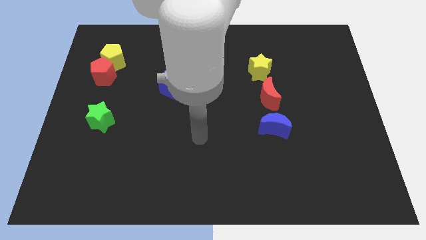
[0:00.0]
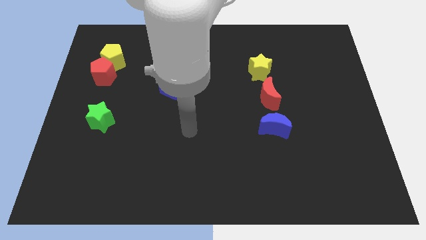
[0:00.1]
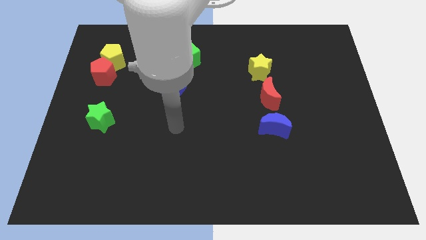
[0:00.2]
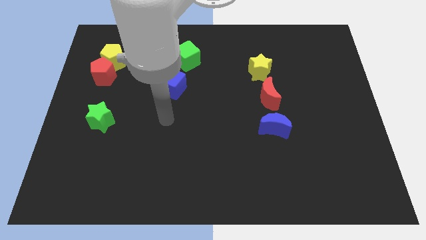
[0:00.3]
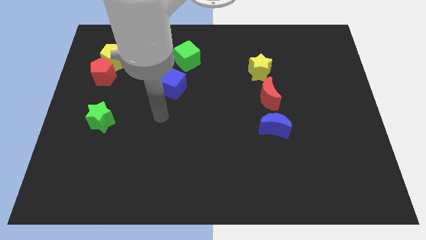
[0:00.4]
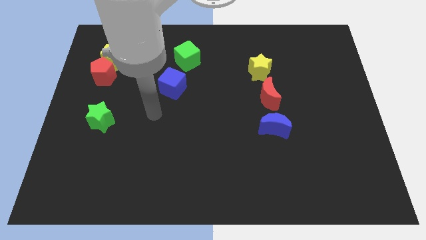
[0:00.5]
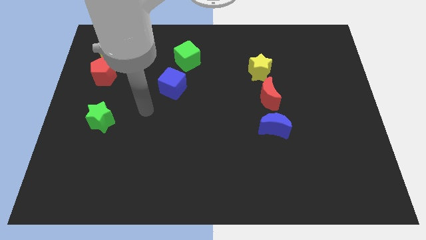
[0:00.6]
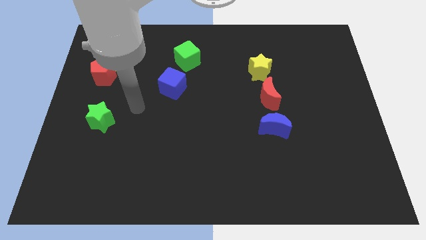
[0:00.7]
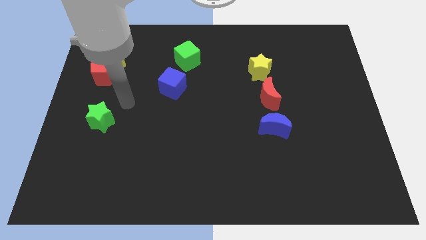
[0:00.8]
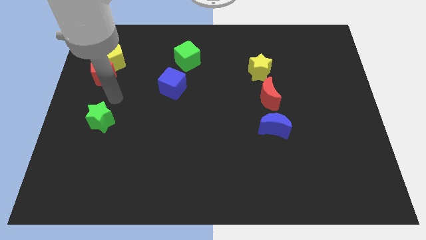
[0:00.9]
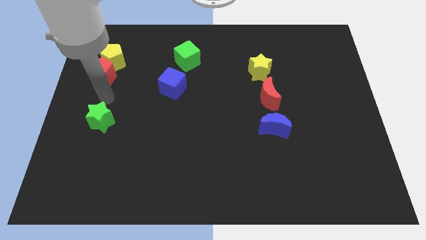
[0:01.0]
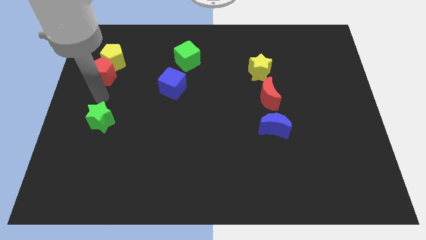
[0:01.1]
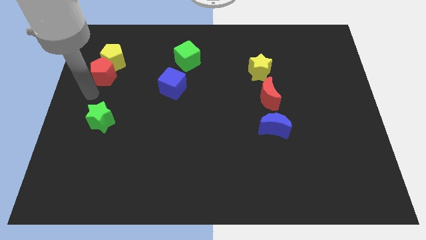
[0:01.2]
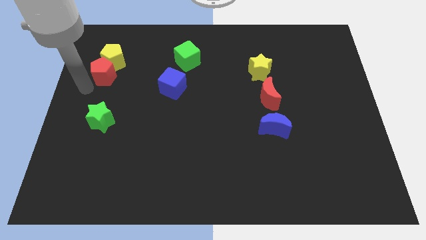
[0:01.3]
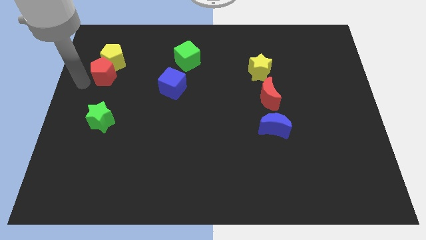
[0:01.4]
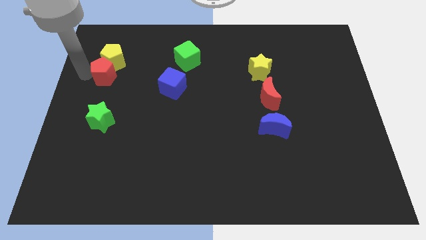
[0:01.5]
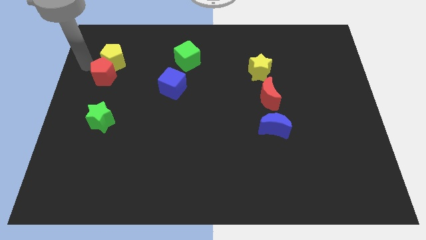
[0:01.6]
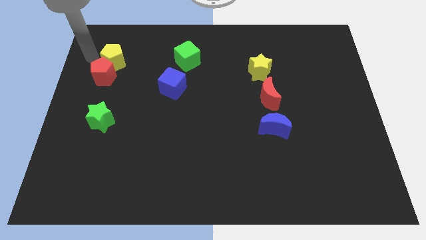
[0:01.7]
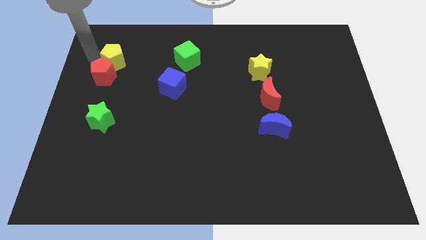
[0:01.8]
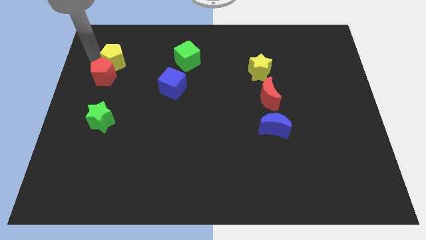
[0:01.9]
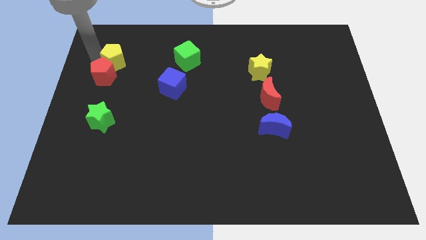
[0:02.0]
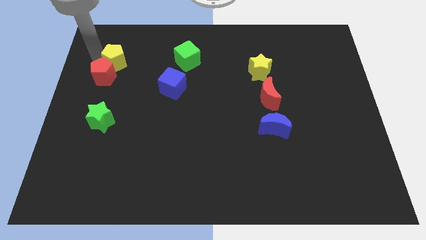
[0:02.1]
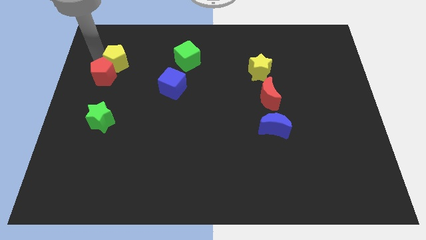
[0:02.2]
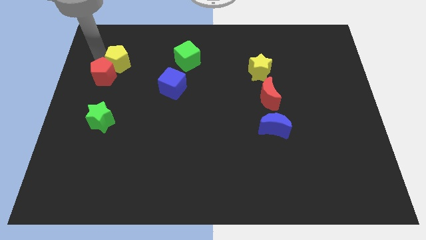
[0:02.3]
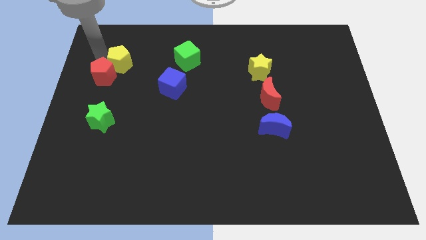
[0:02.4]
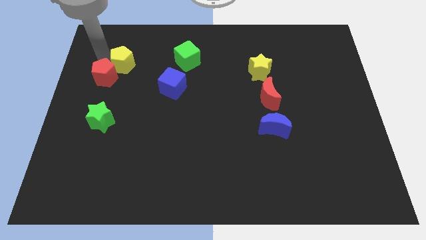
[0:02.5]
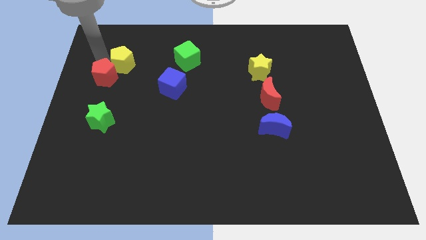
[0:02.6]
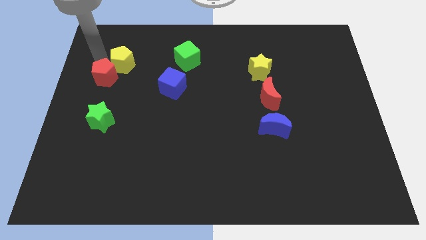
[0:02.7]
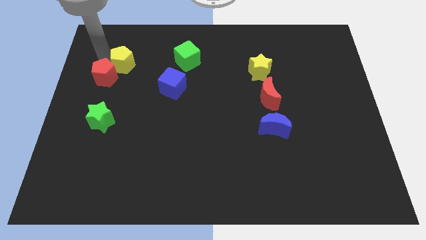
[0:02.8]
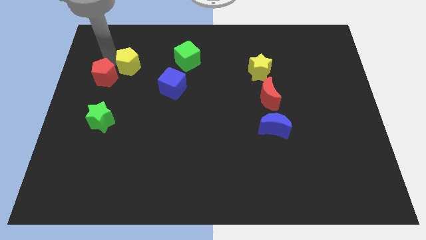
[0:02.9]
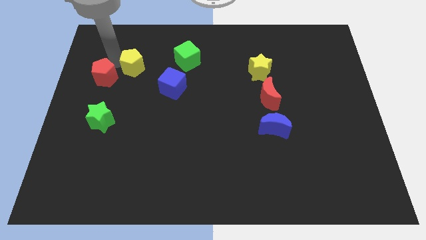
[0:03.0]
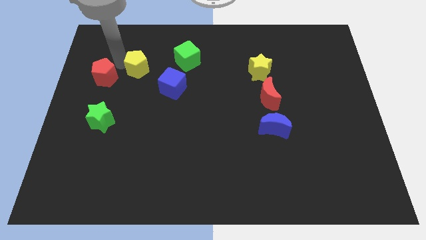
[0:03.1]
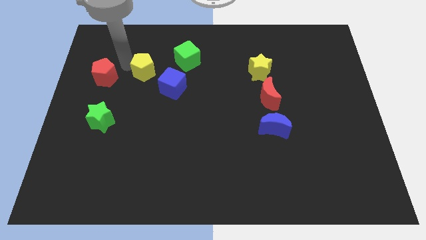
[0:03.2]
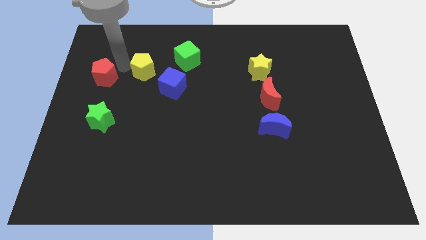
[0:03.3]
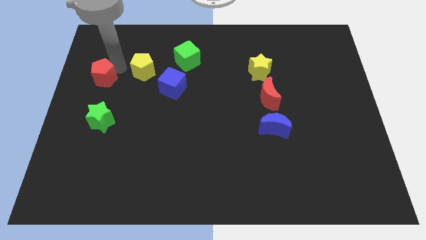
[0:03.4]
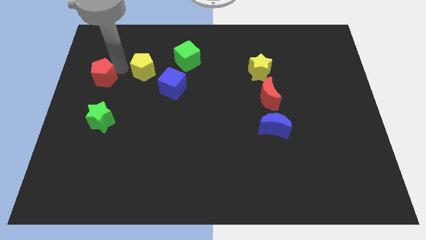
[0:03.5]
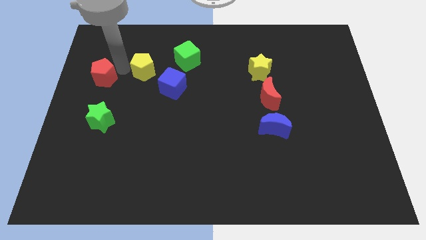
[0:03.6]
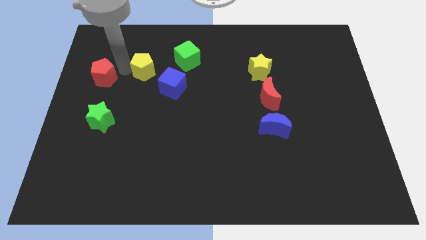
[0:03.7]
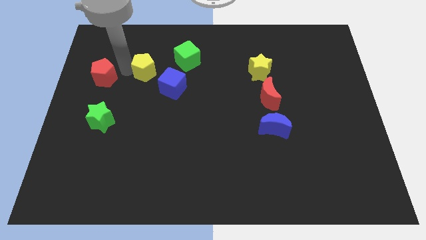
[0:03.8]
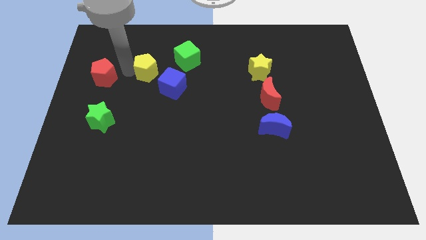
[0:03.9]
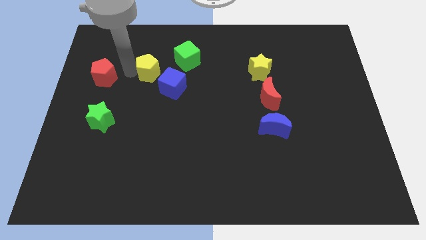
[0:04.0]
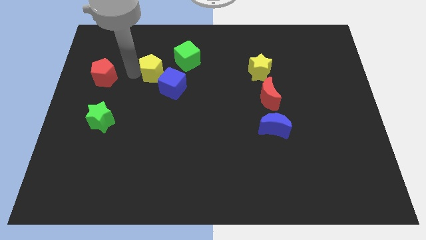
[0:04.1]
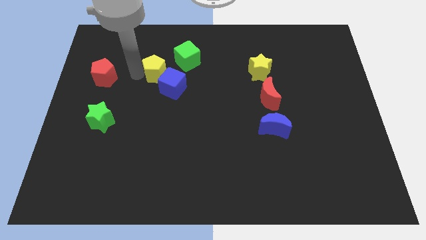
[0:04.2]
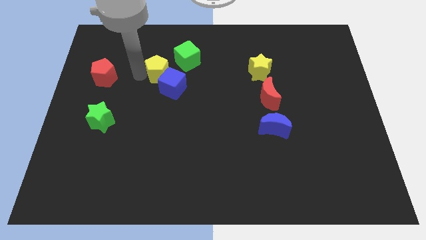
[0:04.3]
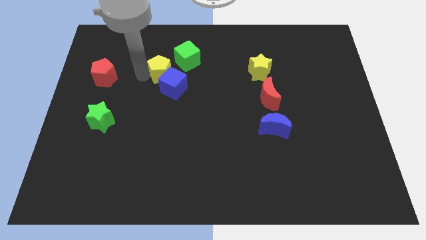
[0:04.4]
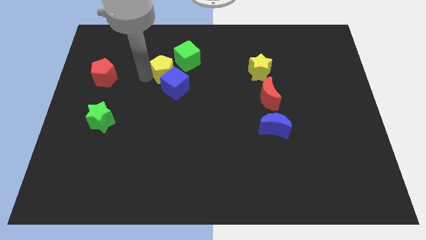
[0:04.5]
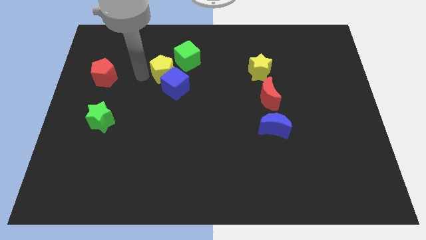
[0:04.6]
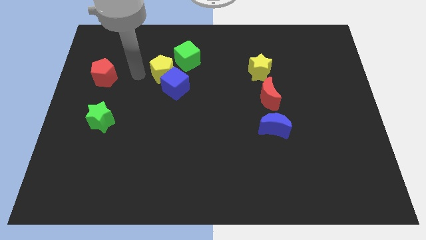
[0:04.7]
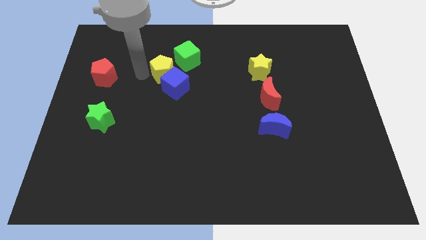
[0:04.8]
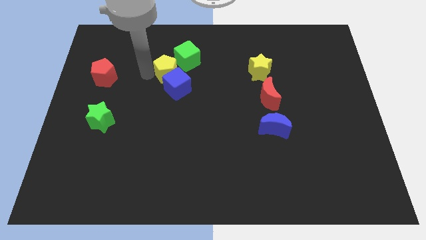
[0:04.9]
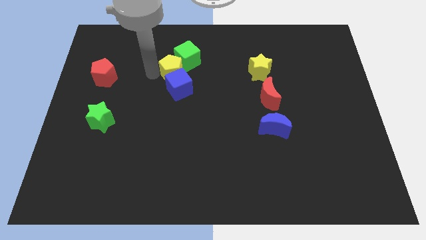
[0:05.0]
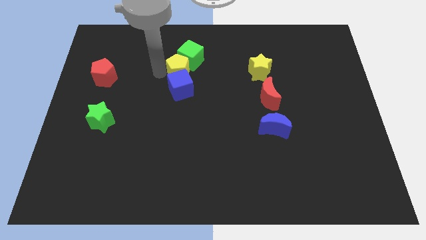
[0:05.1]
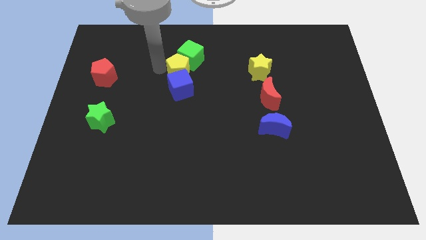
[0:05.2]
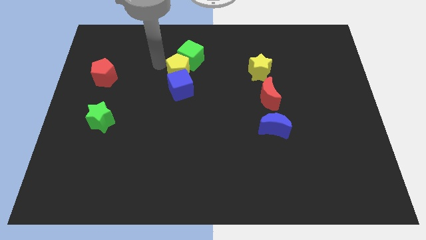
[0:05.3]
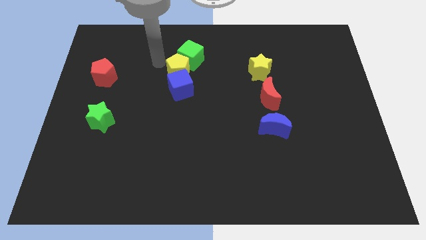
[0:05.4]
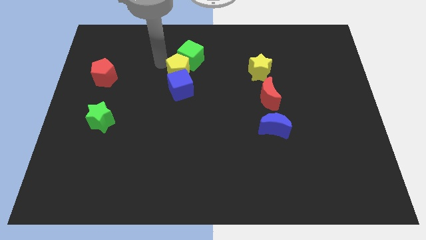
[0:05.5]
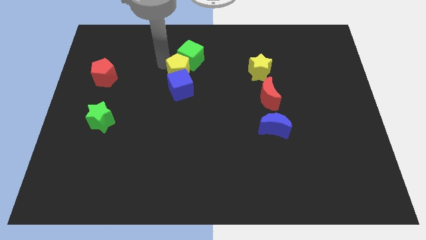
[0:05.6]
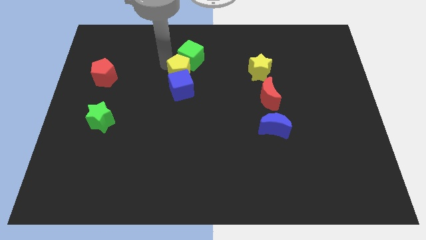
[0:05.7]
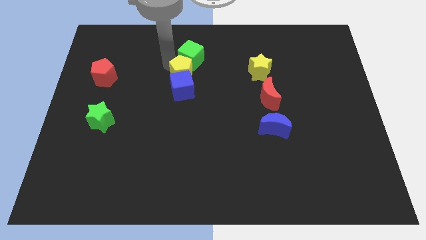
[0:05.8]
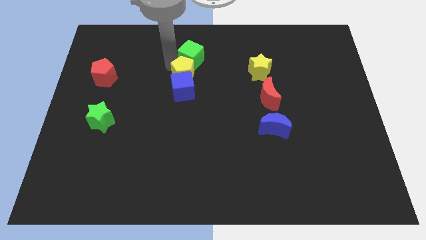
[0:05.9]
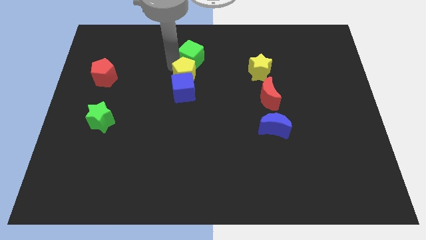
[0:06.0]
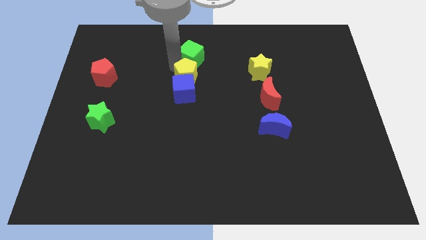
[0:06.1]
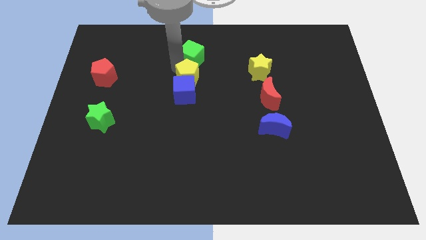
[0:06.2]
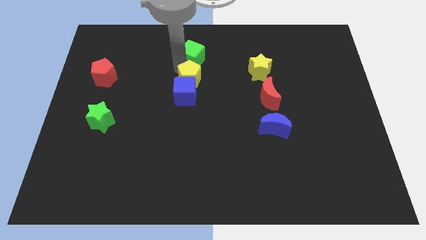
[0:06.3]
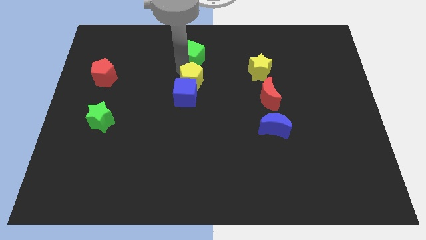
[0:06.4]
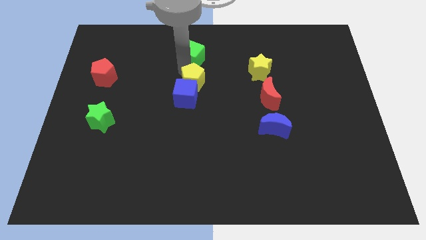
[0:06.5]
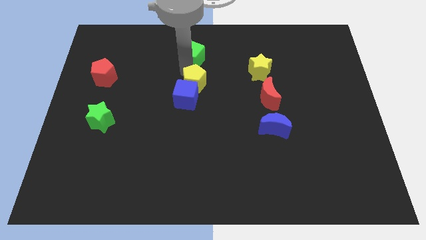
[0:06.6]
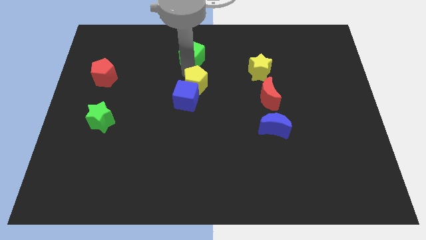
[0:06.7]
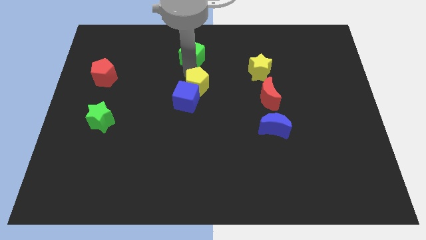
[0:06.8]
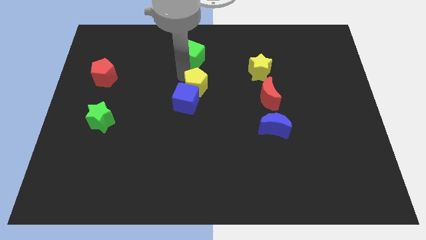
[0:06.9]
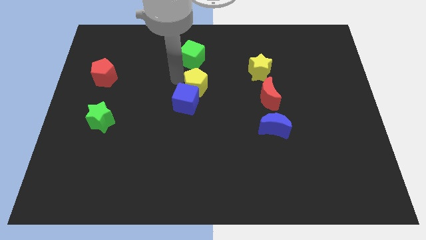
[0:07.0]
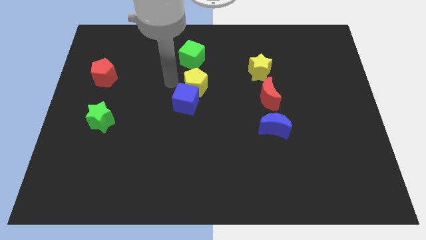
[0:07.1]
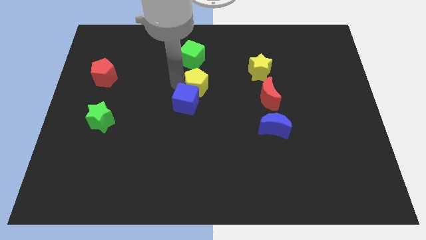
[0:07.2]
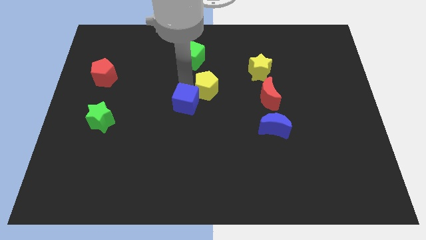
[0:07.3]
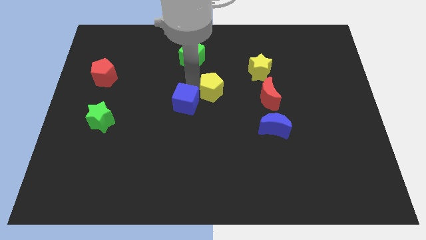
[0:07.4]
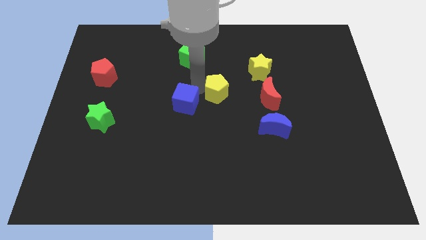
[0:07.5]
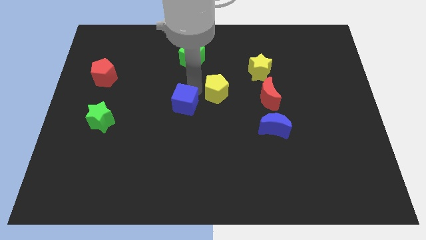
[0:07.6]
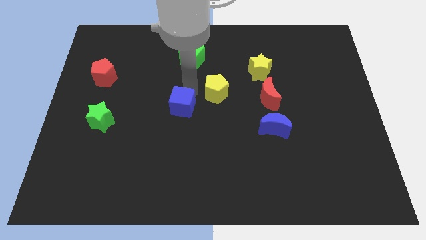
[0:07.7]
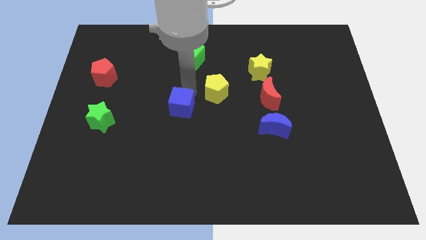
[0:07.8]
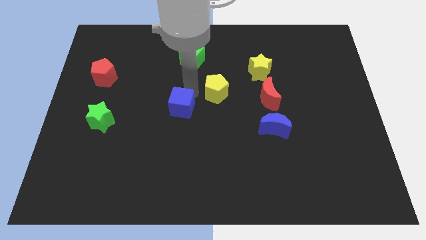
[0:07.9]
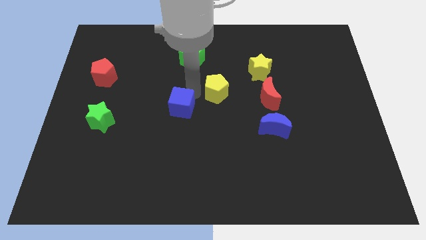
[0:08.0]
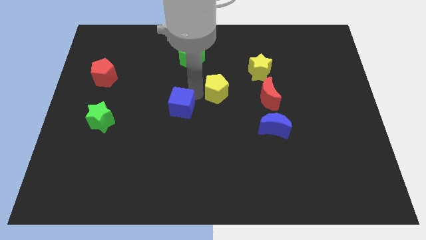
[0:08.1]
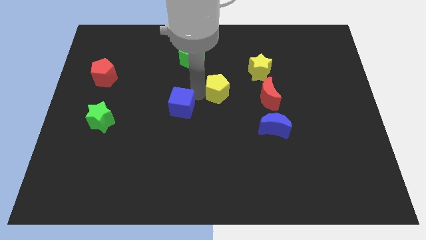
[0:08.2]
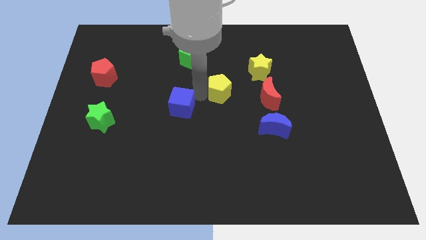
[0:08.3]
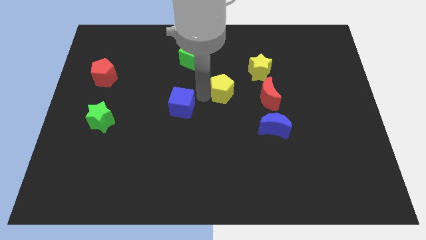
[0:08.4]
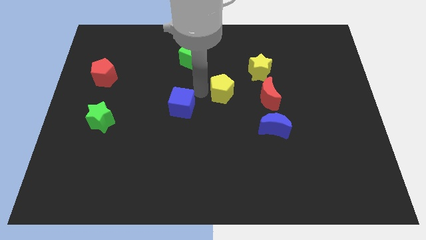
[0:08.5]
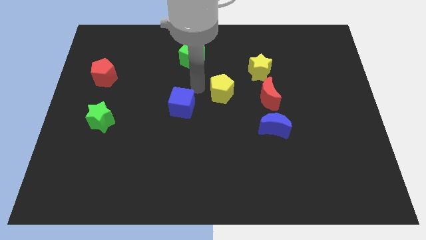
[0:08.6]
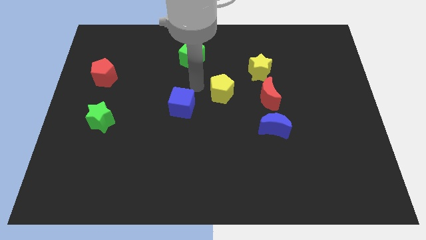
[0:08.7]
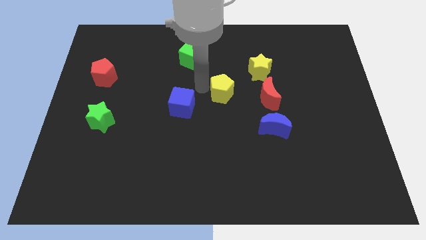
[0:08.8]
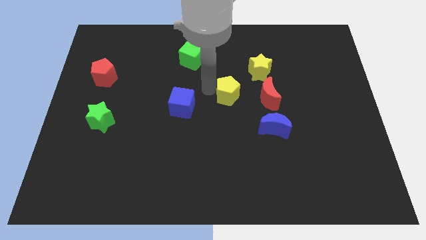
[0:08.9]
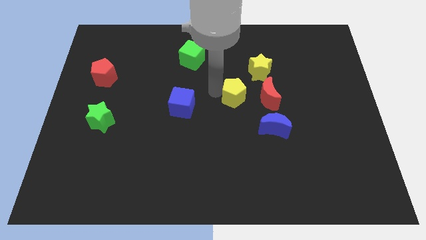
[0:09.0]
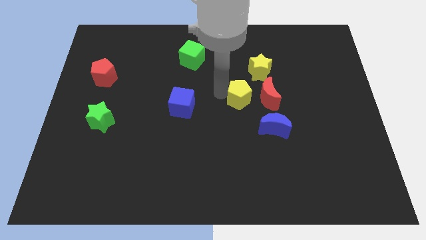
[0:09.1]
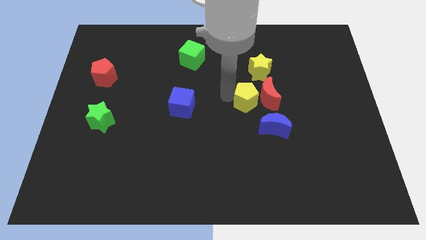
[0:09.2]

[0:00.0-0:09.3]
push the yellow pentagon next to the red moon
